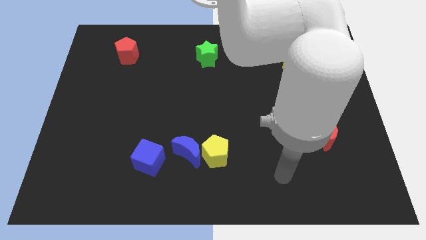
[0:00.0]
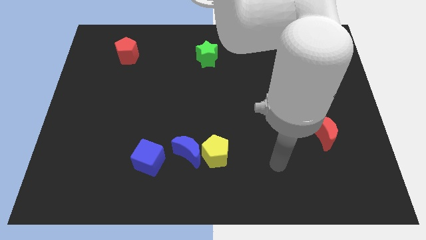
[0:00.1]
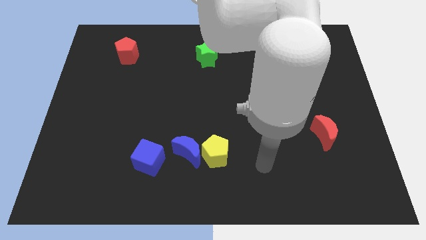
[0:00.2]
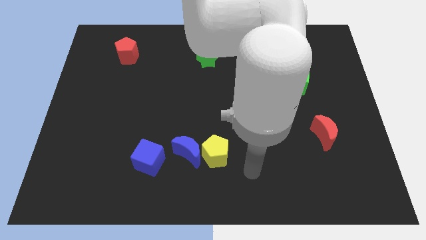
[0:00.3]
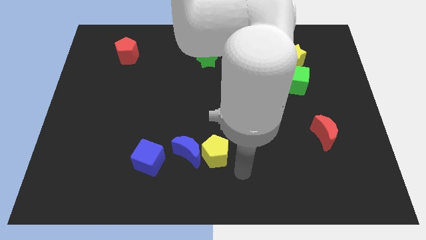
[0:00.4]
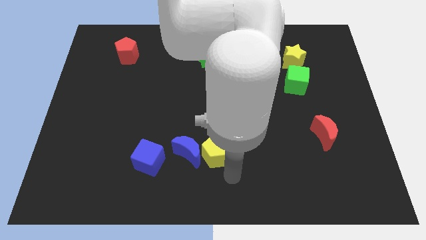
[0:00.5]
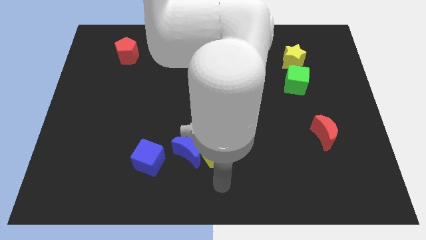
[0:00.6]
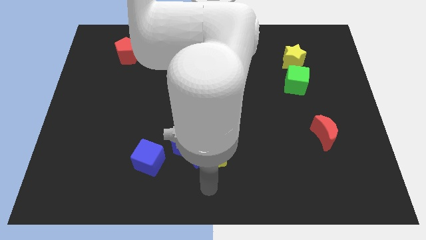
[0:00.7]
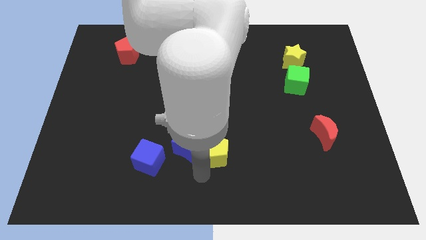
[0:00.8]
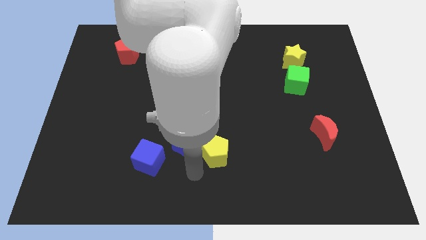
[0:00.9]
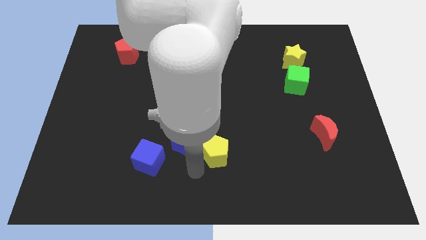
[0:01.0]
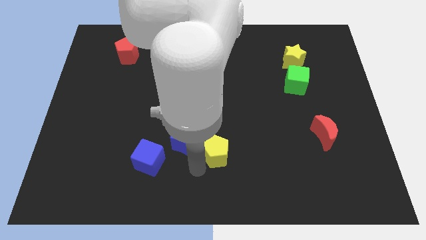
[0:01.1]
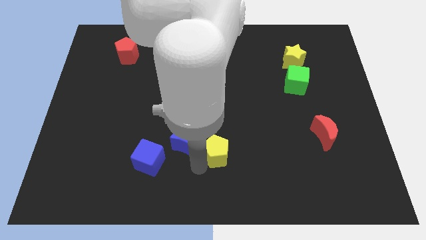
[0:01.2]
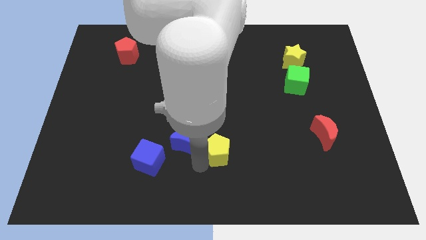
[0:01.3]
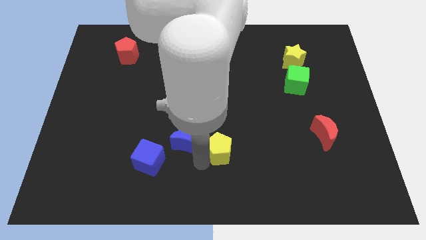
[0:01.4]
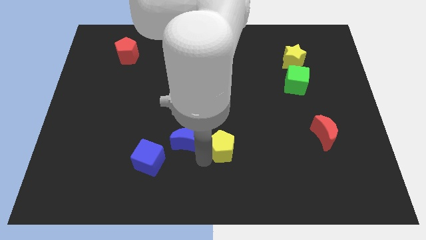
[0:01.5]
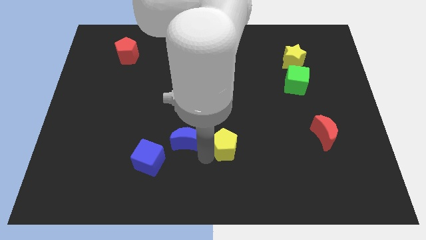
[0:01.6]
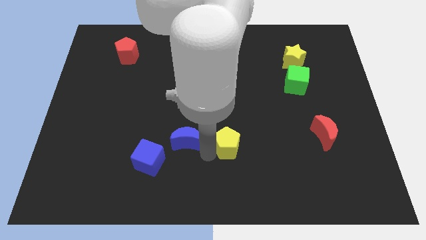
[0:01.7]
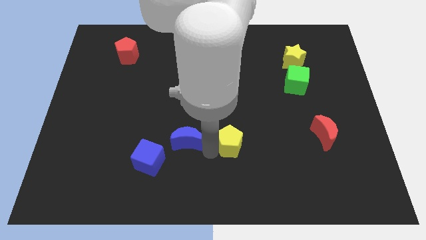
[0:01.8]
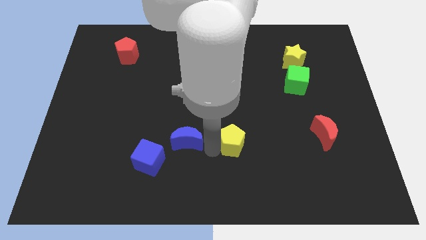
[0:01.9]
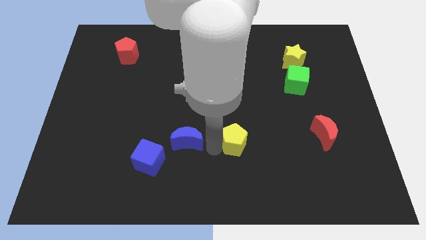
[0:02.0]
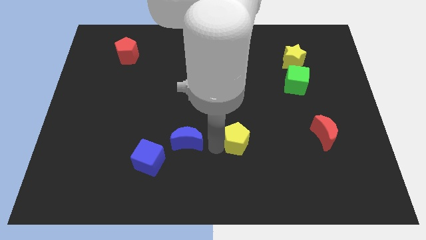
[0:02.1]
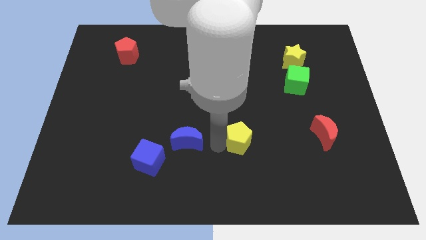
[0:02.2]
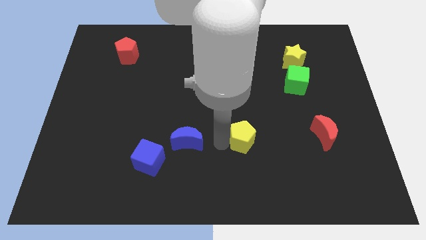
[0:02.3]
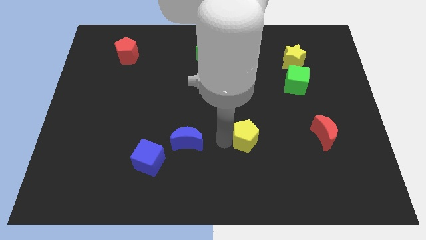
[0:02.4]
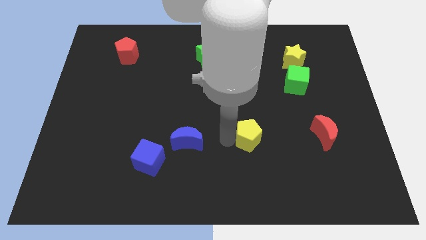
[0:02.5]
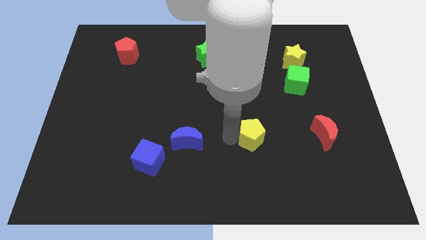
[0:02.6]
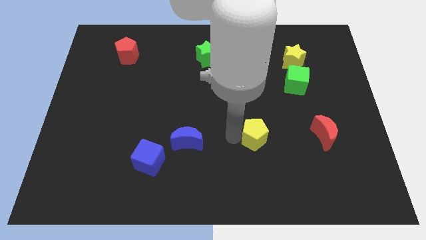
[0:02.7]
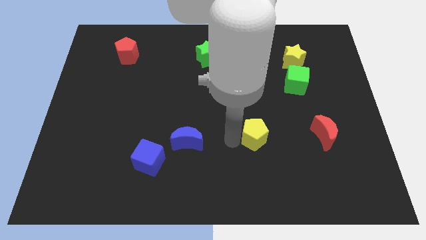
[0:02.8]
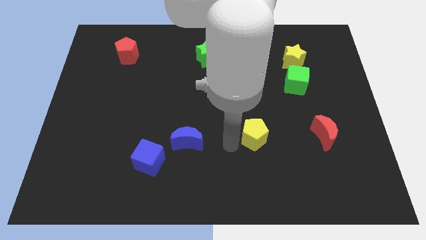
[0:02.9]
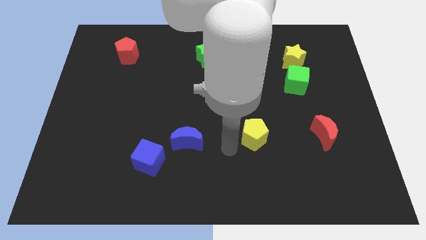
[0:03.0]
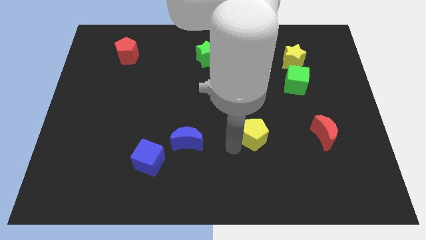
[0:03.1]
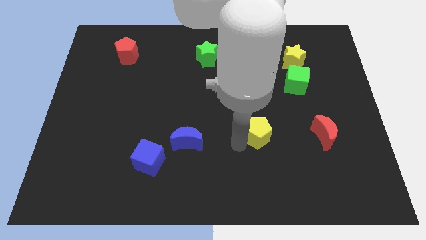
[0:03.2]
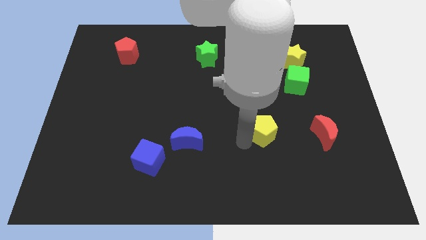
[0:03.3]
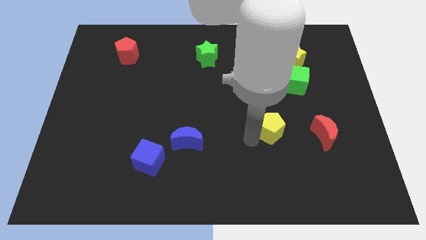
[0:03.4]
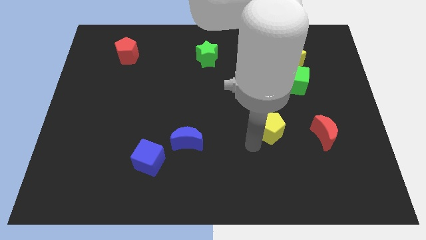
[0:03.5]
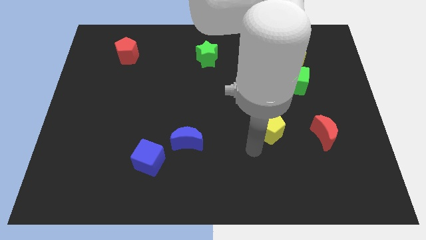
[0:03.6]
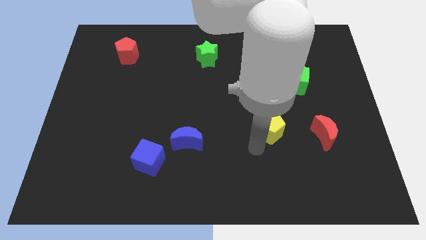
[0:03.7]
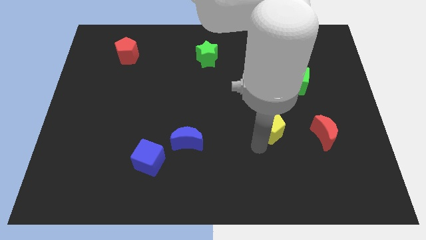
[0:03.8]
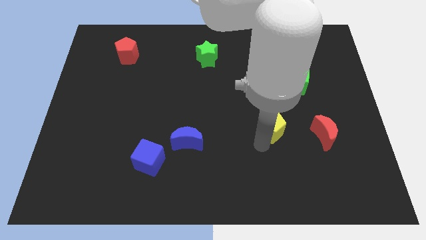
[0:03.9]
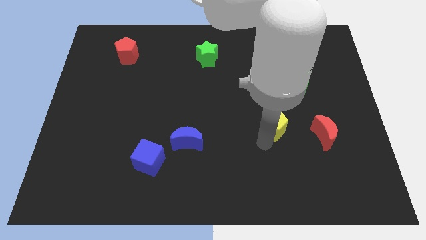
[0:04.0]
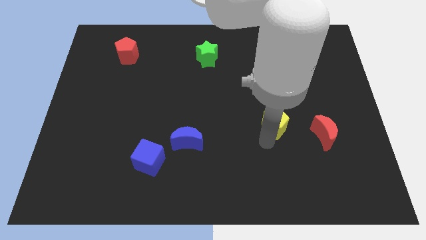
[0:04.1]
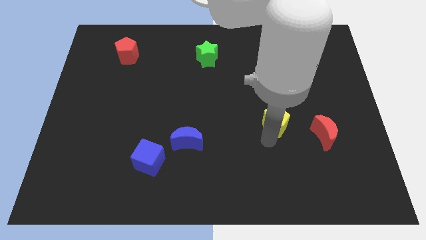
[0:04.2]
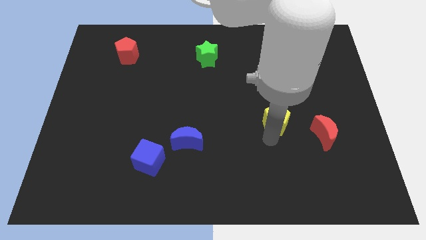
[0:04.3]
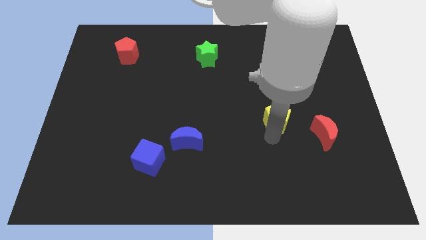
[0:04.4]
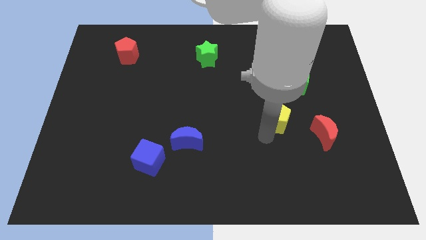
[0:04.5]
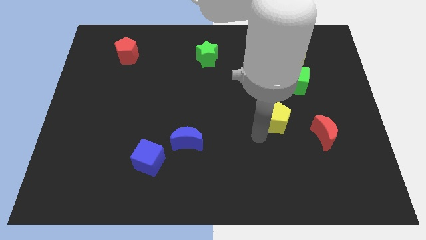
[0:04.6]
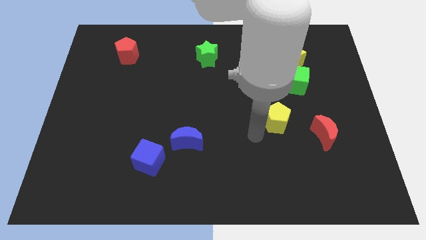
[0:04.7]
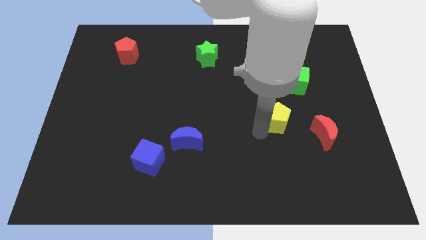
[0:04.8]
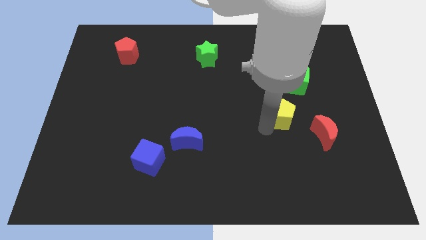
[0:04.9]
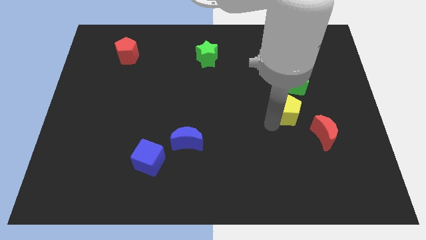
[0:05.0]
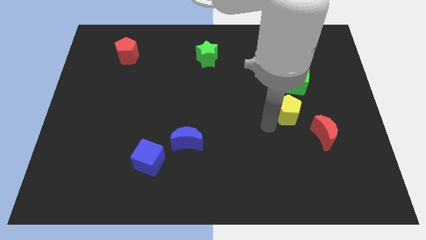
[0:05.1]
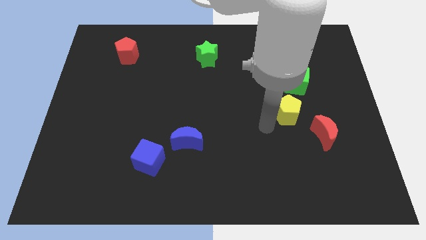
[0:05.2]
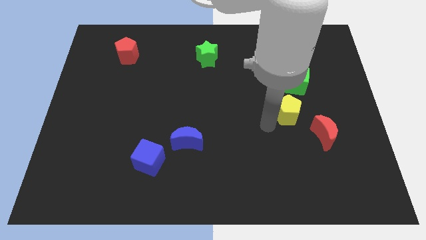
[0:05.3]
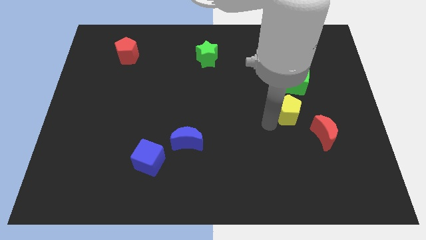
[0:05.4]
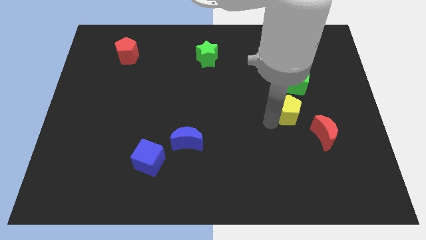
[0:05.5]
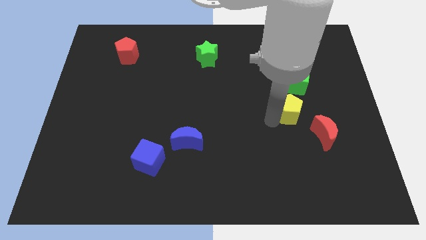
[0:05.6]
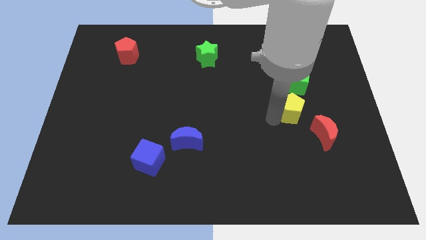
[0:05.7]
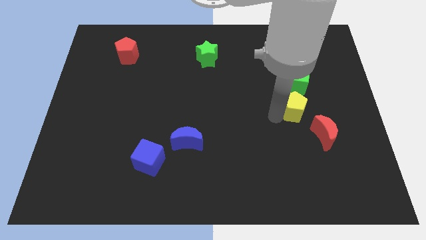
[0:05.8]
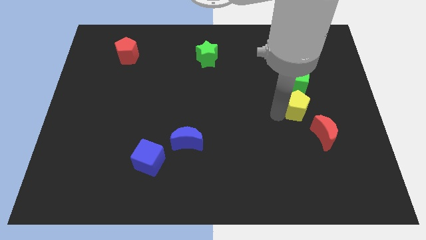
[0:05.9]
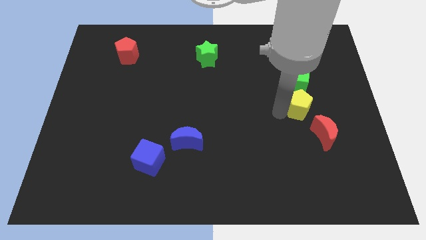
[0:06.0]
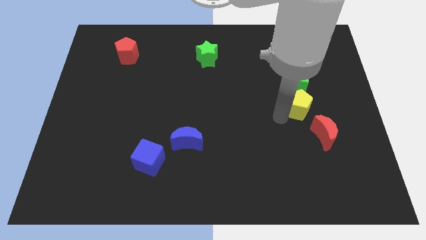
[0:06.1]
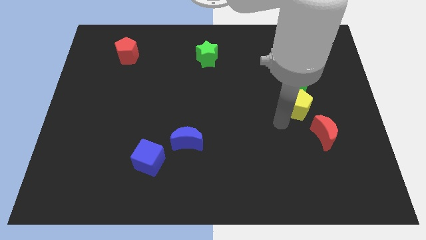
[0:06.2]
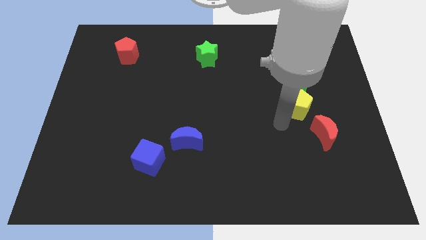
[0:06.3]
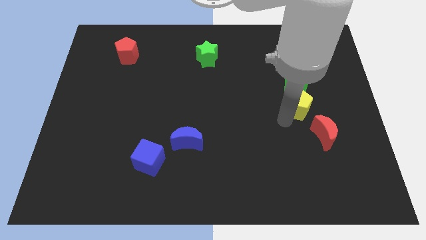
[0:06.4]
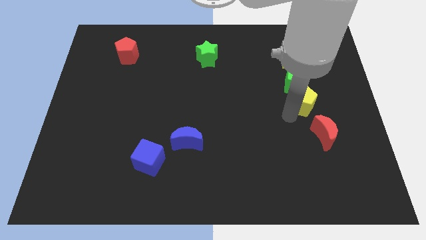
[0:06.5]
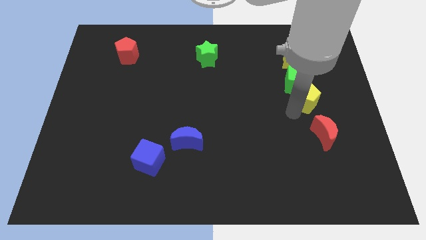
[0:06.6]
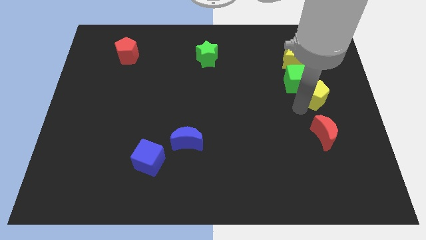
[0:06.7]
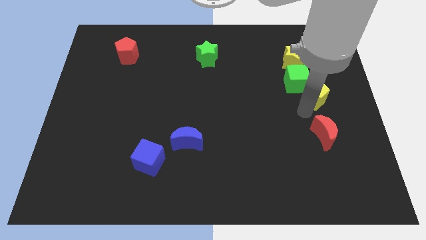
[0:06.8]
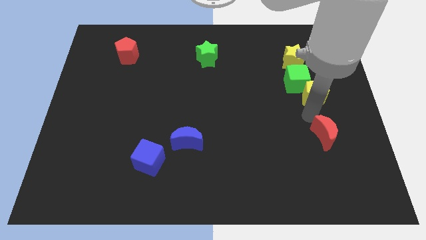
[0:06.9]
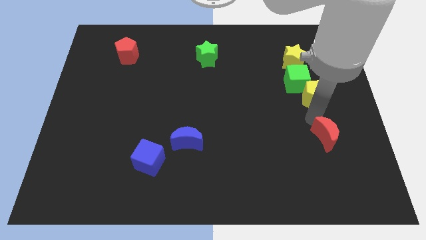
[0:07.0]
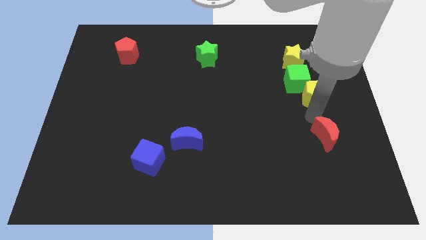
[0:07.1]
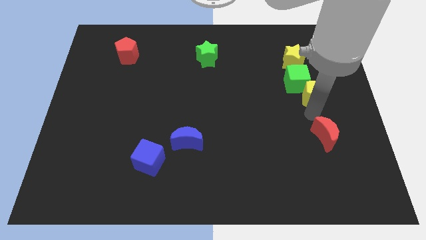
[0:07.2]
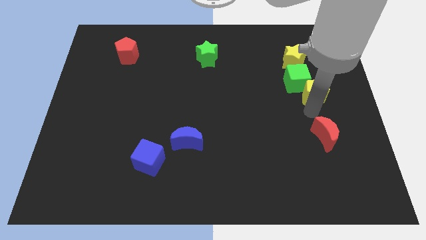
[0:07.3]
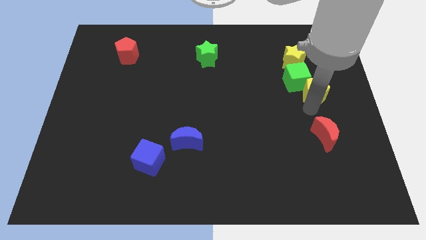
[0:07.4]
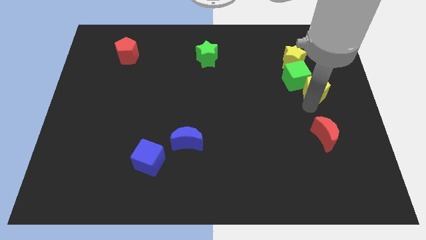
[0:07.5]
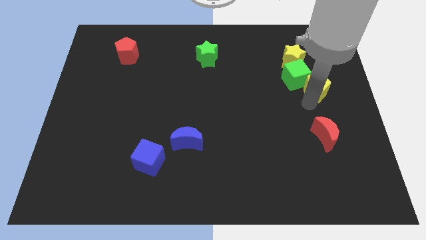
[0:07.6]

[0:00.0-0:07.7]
move the yellow pentagon to the bottom right of the yellow star

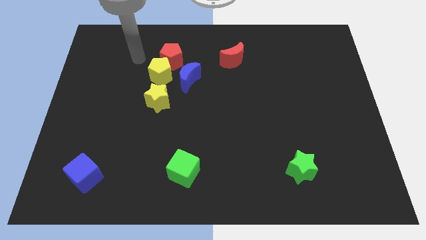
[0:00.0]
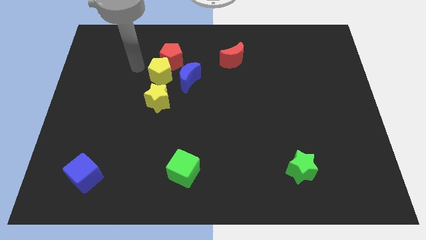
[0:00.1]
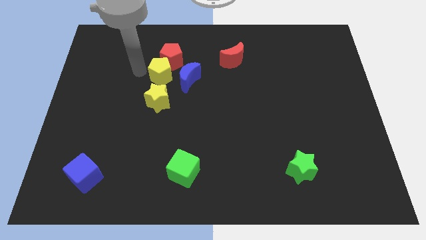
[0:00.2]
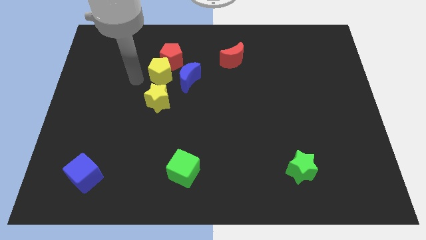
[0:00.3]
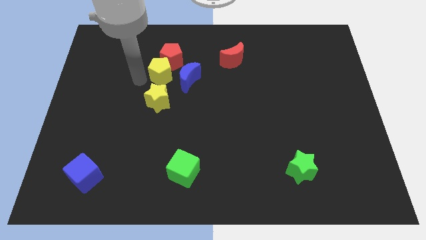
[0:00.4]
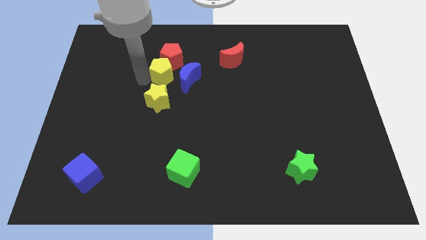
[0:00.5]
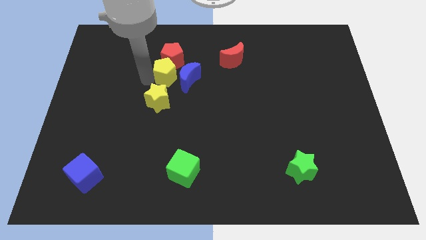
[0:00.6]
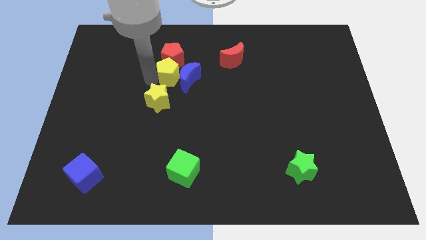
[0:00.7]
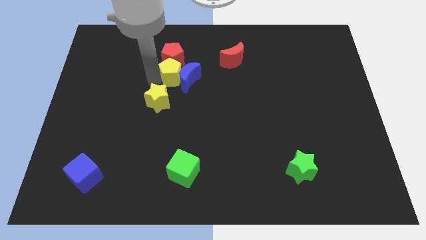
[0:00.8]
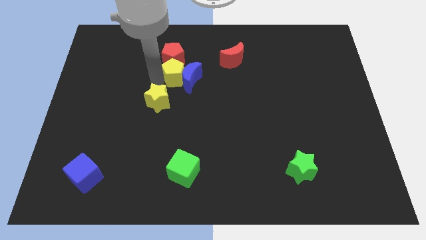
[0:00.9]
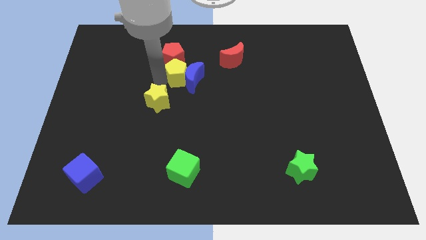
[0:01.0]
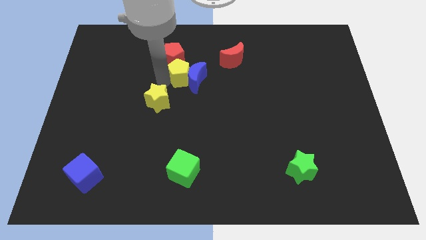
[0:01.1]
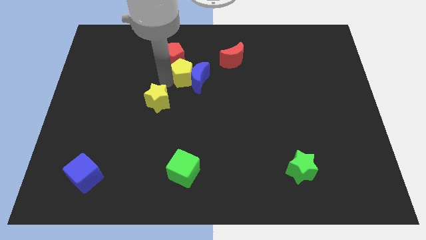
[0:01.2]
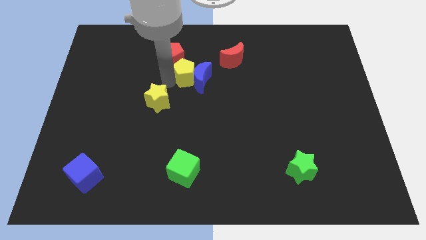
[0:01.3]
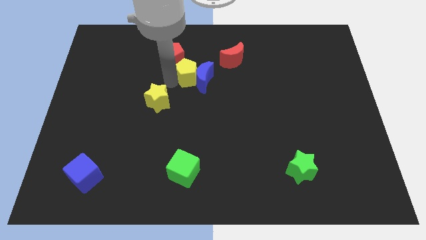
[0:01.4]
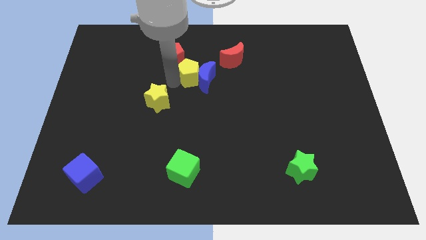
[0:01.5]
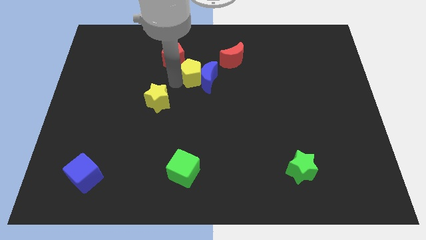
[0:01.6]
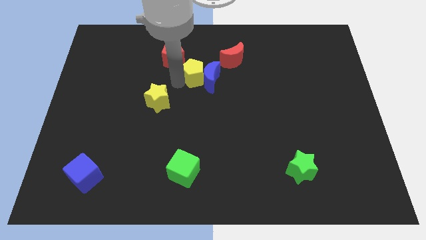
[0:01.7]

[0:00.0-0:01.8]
slide the yellow pentagon to the bottom left side of the red moon
